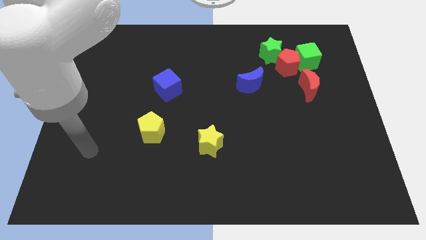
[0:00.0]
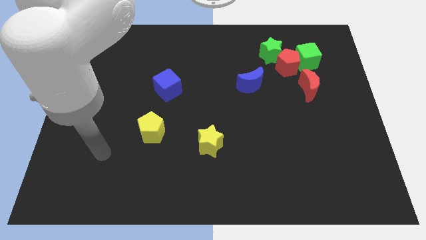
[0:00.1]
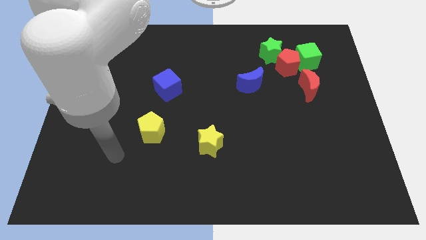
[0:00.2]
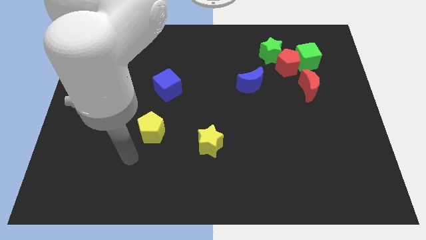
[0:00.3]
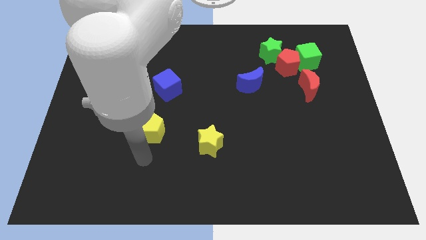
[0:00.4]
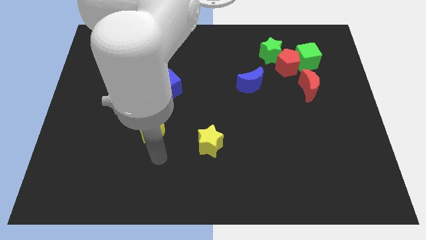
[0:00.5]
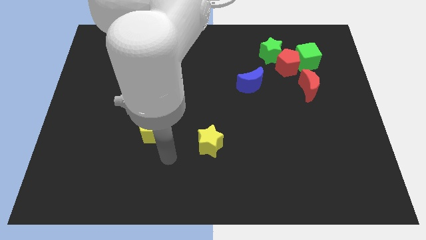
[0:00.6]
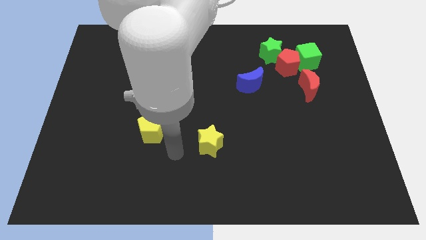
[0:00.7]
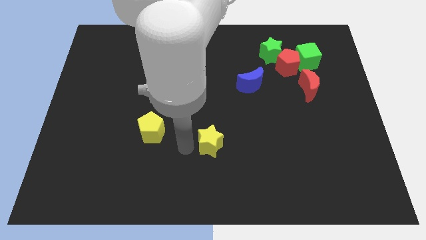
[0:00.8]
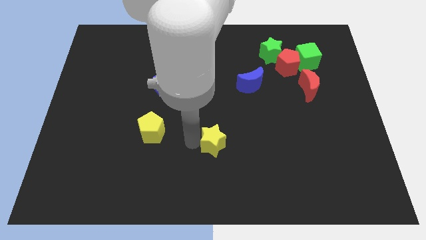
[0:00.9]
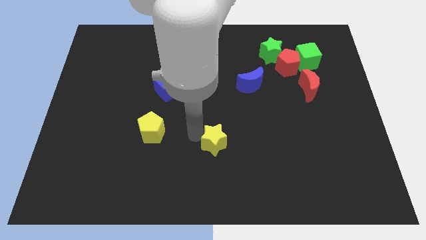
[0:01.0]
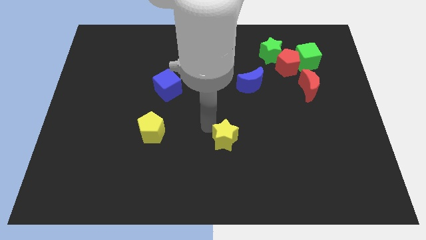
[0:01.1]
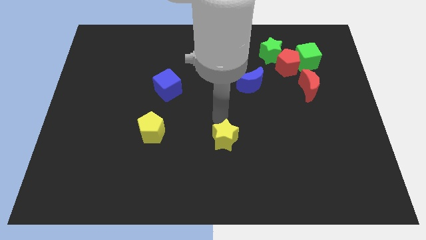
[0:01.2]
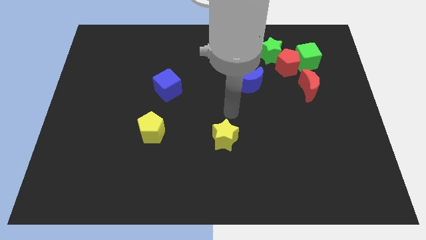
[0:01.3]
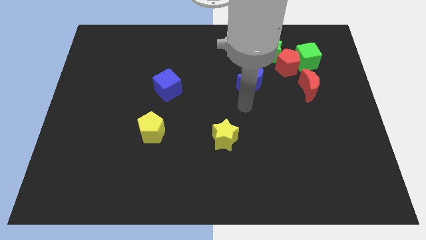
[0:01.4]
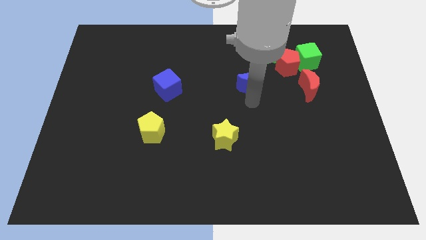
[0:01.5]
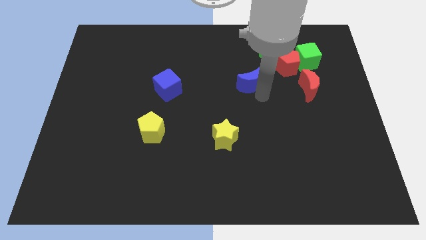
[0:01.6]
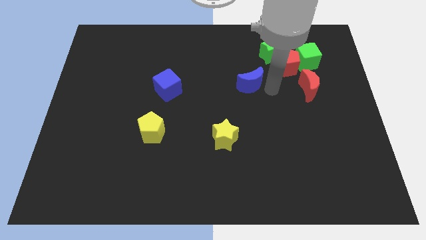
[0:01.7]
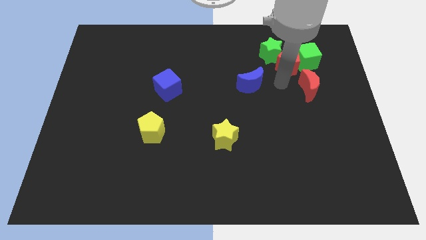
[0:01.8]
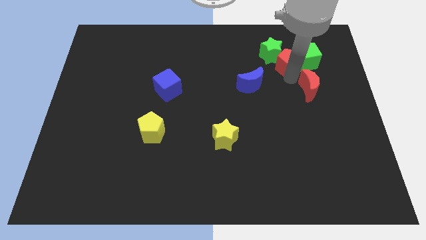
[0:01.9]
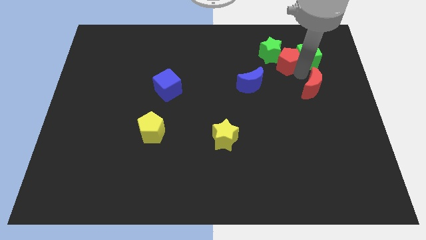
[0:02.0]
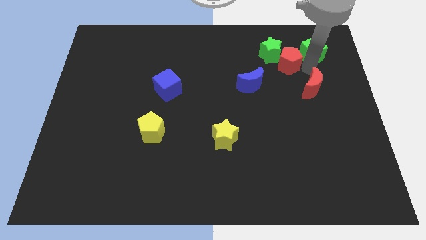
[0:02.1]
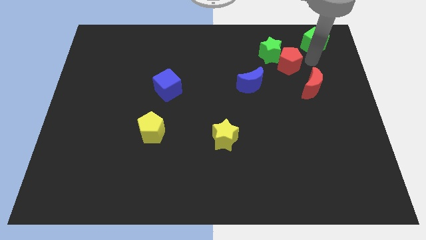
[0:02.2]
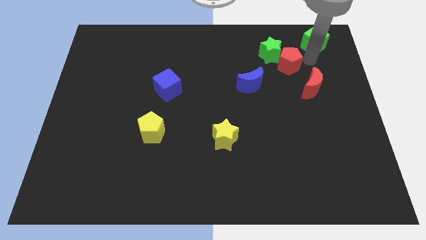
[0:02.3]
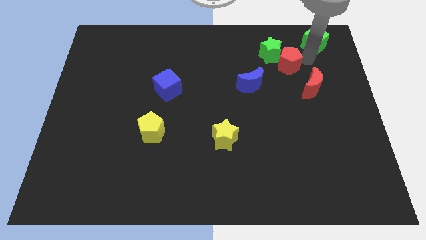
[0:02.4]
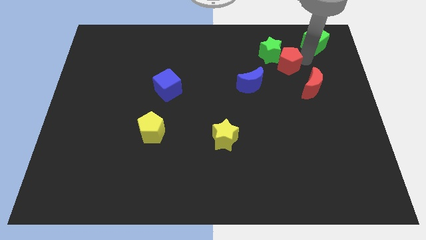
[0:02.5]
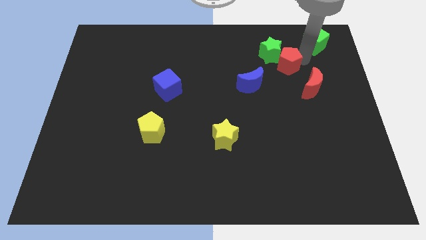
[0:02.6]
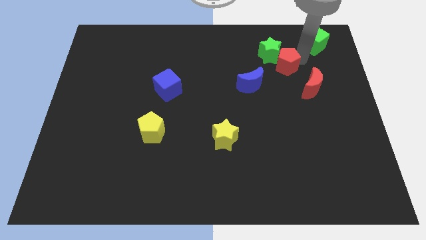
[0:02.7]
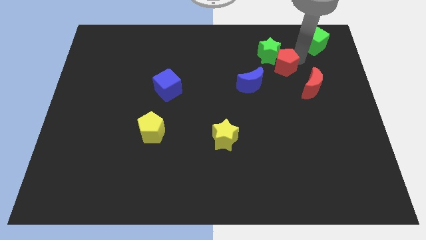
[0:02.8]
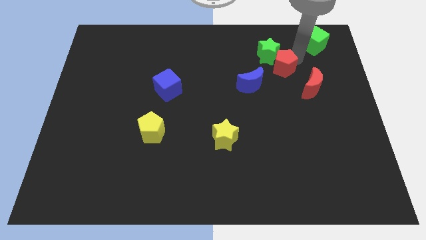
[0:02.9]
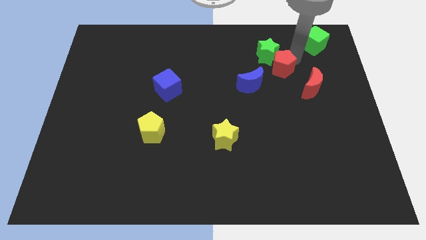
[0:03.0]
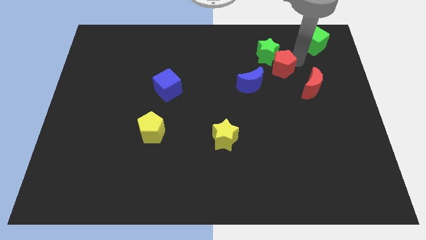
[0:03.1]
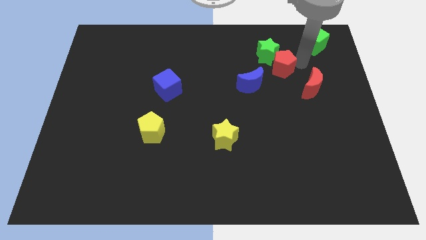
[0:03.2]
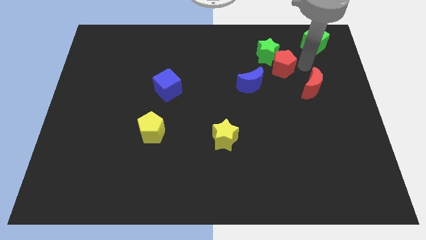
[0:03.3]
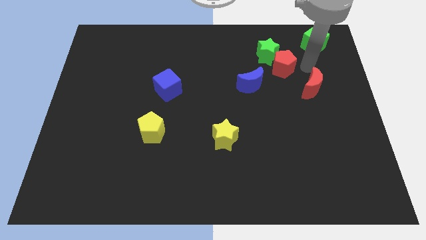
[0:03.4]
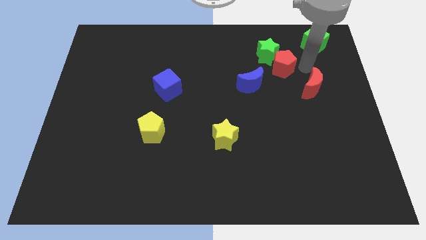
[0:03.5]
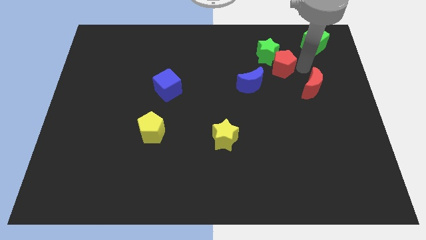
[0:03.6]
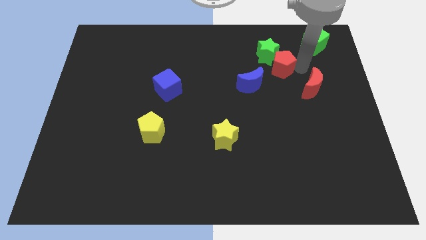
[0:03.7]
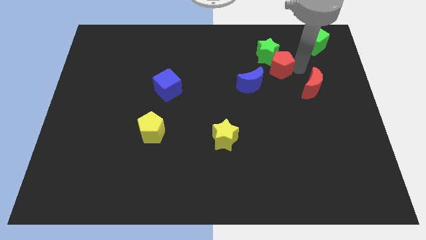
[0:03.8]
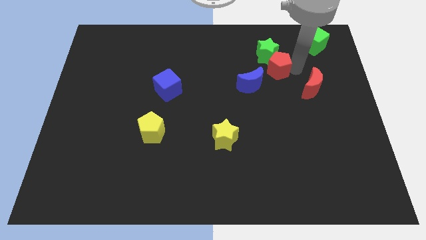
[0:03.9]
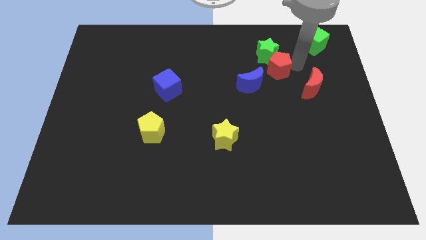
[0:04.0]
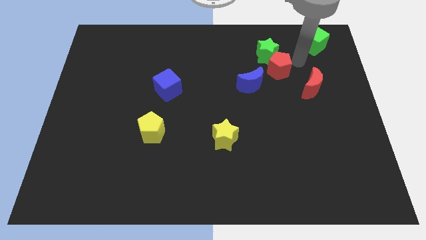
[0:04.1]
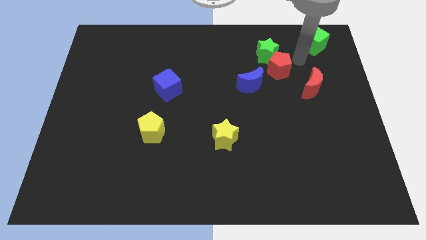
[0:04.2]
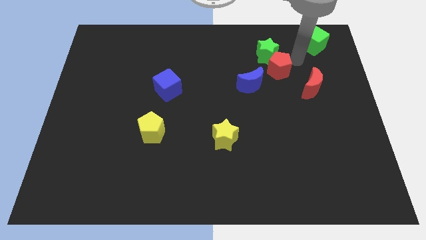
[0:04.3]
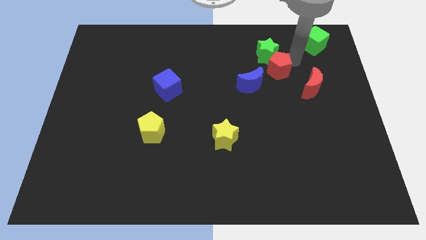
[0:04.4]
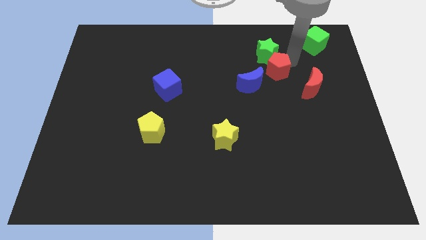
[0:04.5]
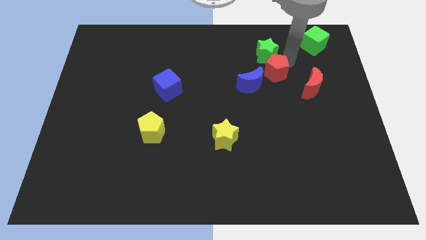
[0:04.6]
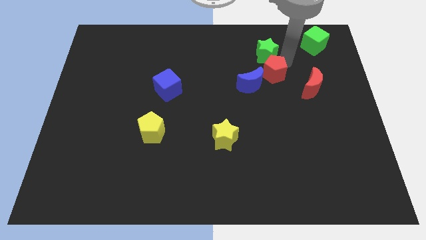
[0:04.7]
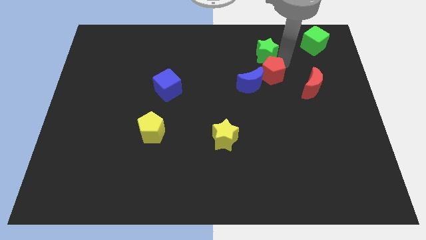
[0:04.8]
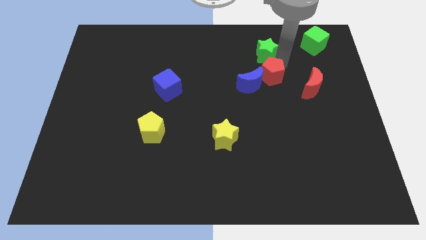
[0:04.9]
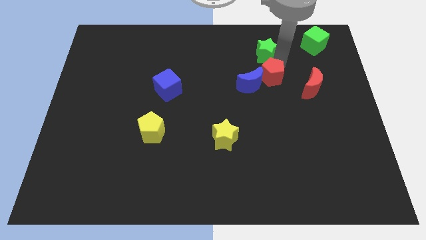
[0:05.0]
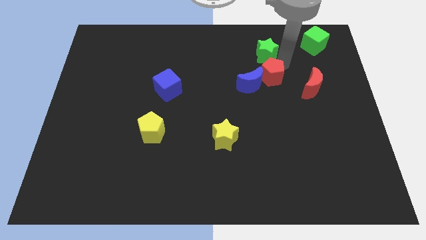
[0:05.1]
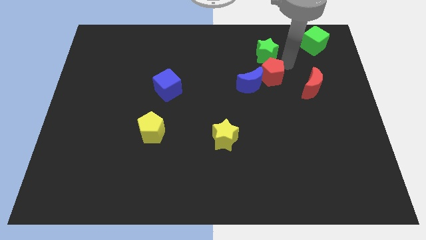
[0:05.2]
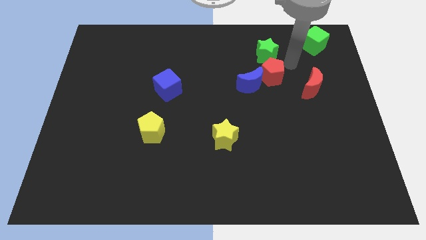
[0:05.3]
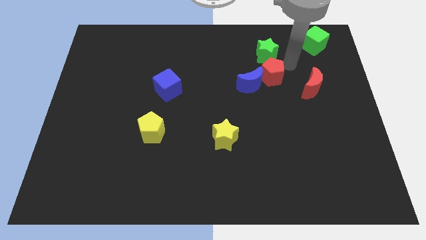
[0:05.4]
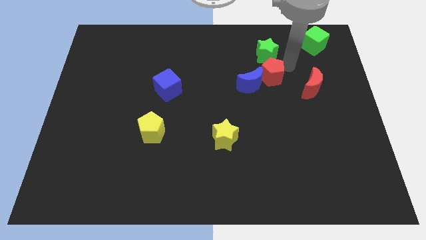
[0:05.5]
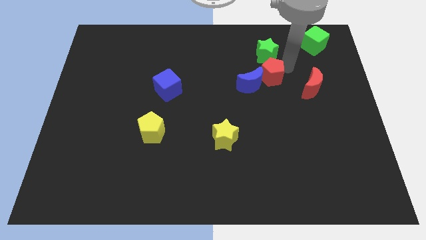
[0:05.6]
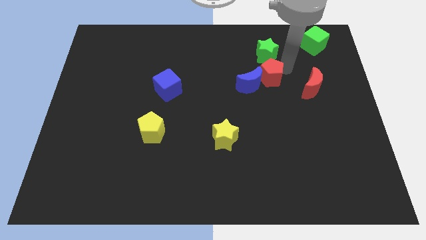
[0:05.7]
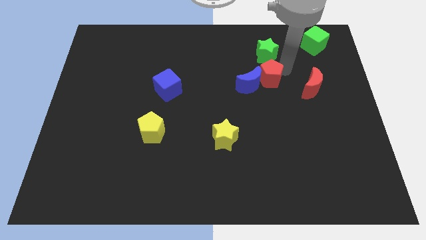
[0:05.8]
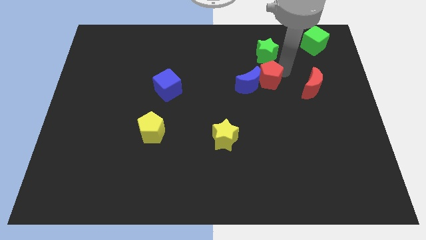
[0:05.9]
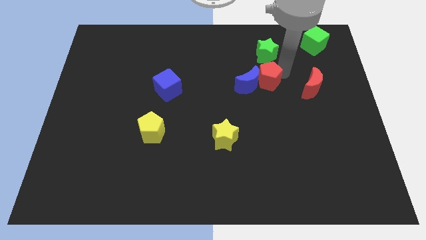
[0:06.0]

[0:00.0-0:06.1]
pull the red pentagon apart from the clump

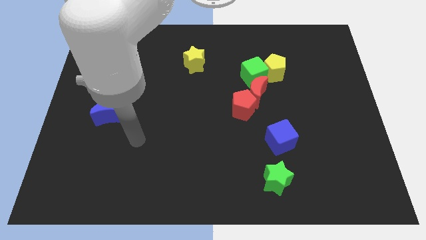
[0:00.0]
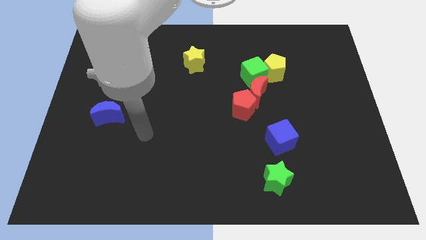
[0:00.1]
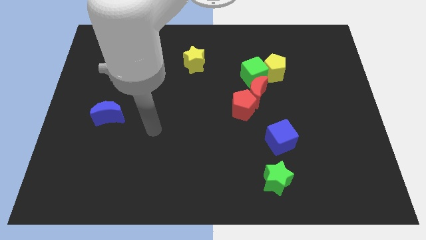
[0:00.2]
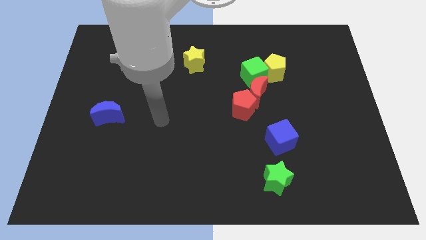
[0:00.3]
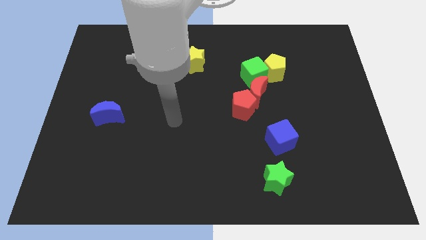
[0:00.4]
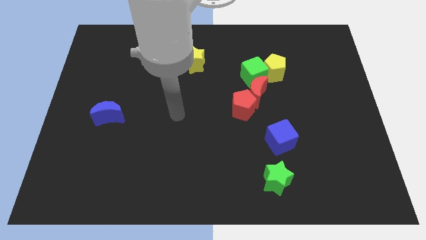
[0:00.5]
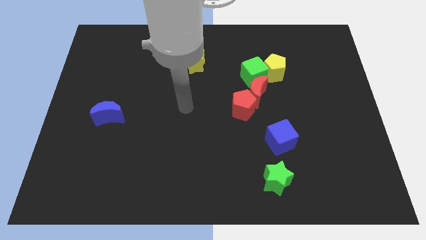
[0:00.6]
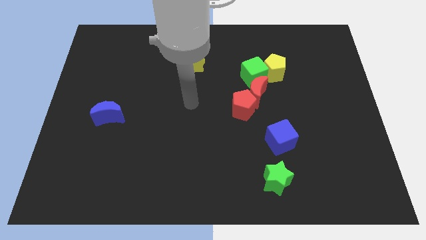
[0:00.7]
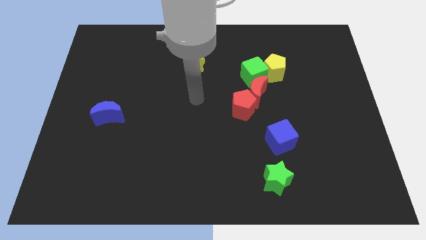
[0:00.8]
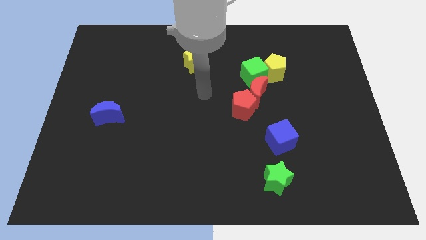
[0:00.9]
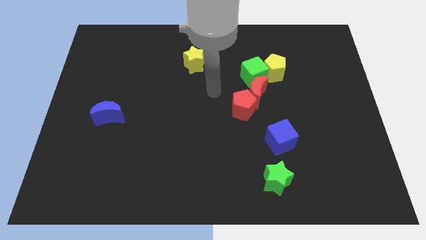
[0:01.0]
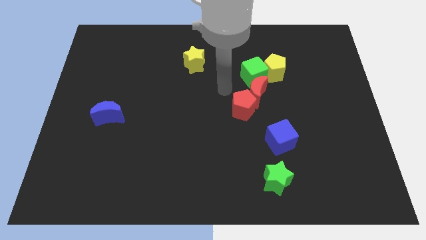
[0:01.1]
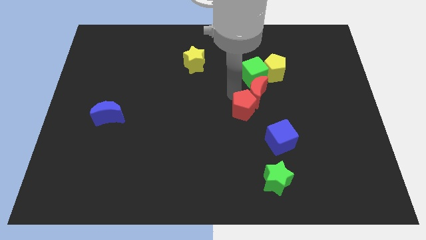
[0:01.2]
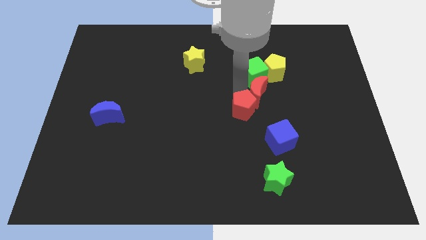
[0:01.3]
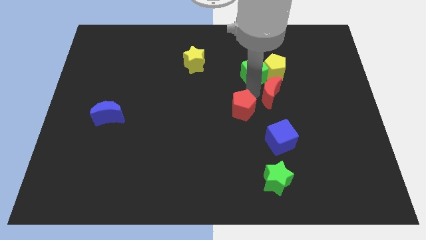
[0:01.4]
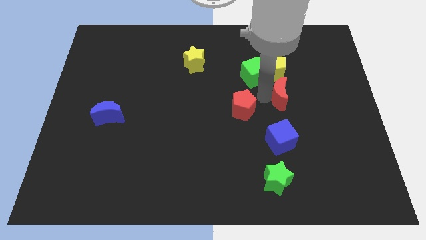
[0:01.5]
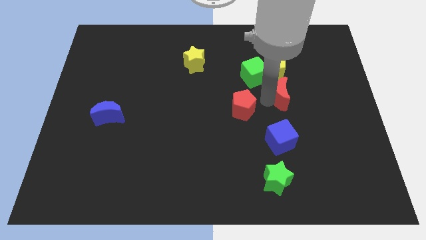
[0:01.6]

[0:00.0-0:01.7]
pull the red pentagon apart from the red moon

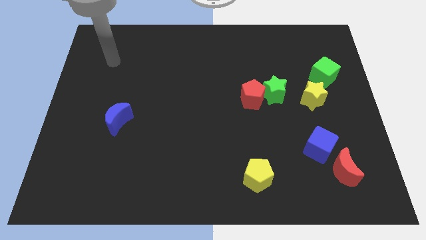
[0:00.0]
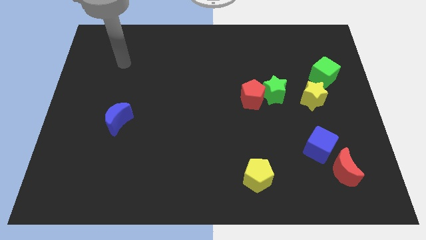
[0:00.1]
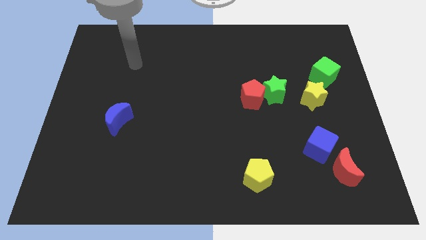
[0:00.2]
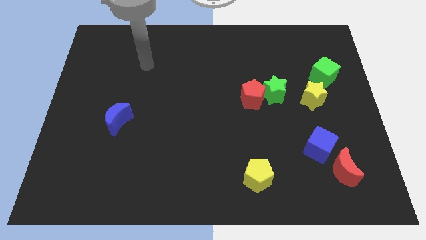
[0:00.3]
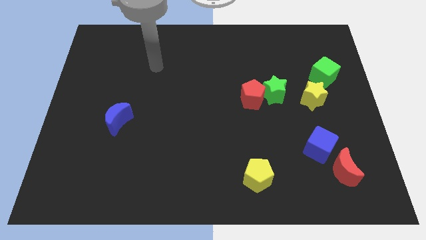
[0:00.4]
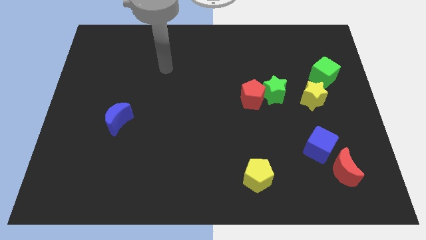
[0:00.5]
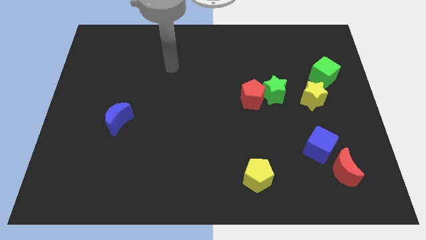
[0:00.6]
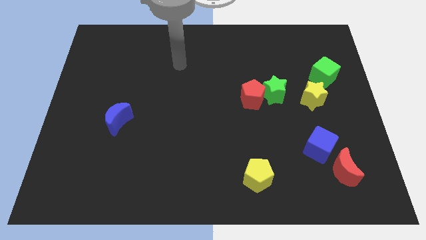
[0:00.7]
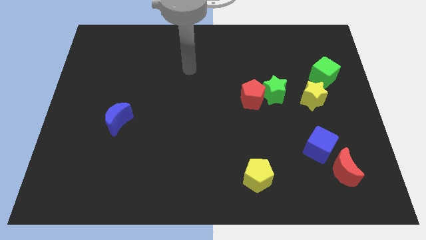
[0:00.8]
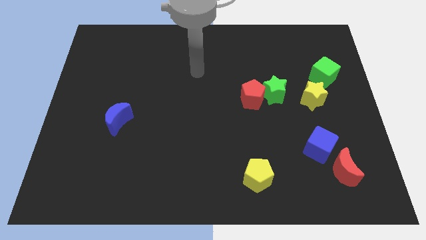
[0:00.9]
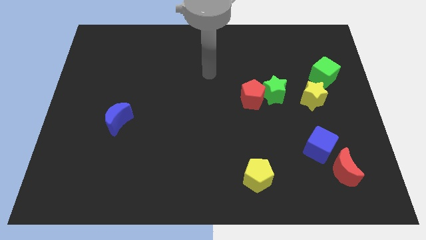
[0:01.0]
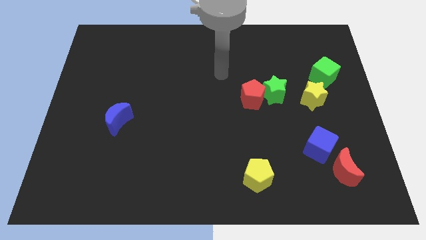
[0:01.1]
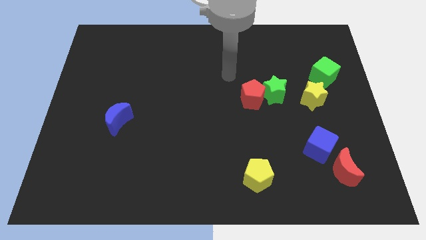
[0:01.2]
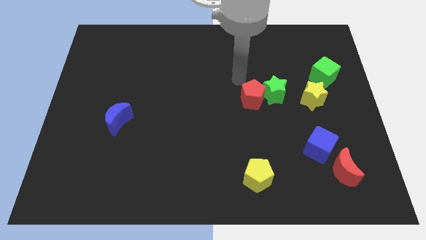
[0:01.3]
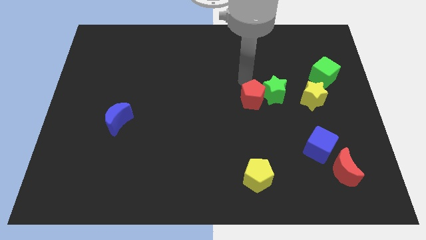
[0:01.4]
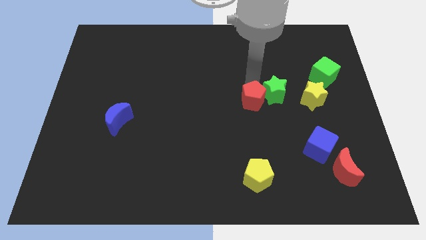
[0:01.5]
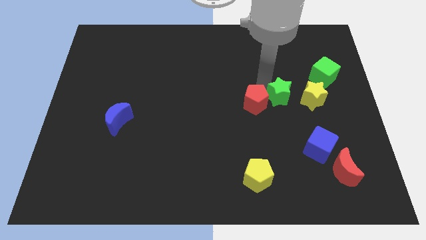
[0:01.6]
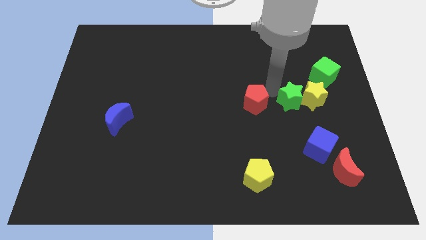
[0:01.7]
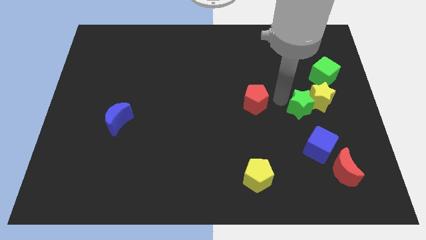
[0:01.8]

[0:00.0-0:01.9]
move the red pentagon away from the green star
